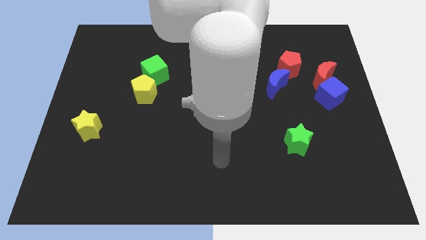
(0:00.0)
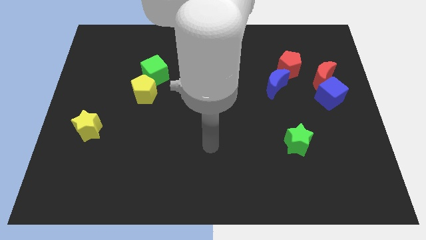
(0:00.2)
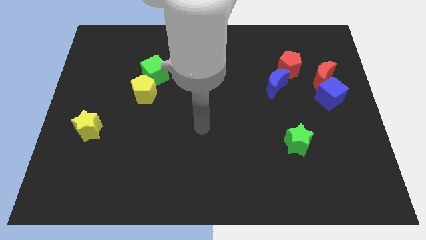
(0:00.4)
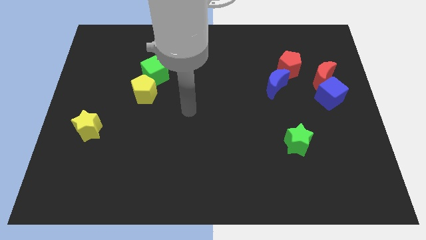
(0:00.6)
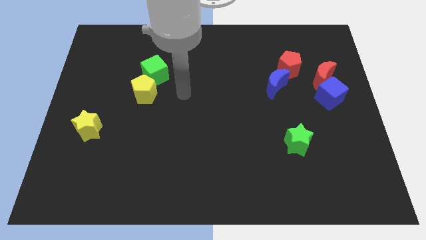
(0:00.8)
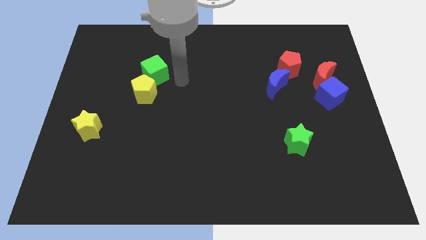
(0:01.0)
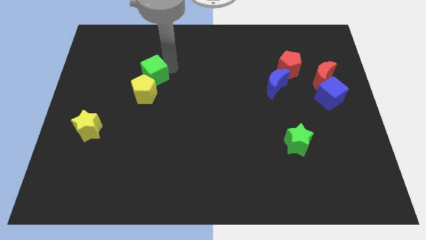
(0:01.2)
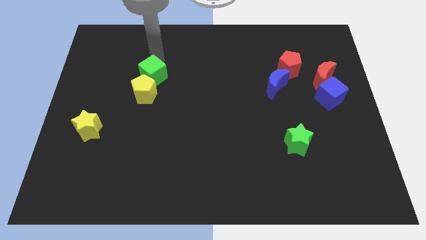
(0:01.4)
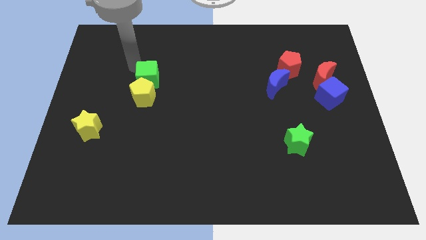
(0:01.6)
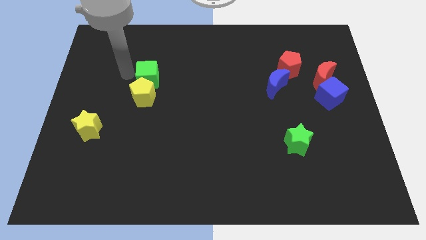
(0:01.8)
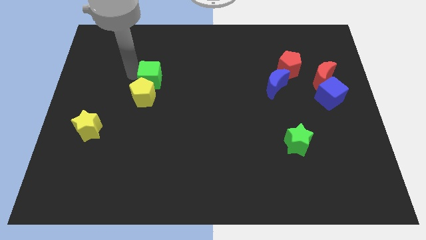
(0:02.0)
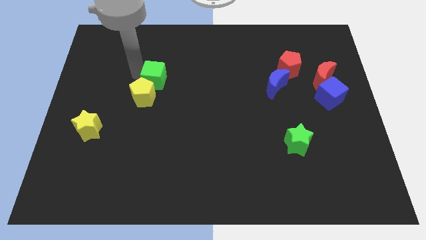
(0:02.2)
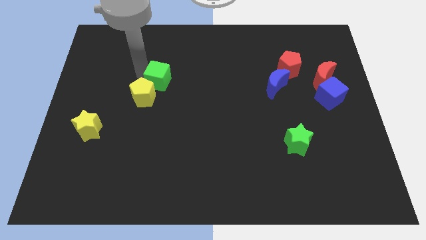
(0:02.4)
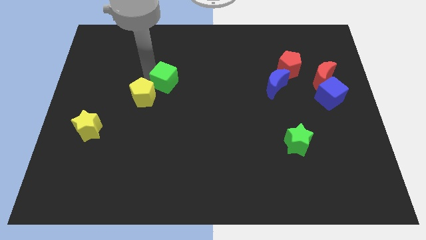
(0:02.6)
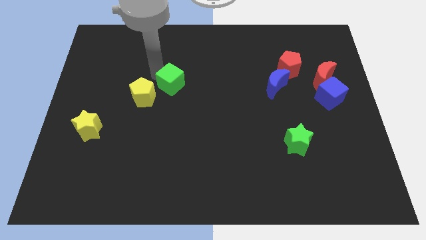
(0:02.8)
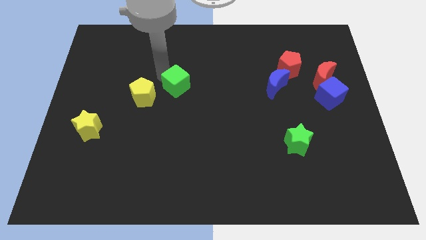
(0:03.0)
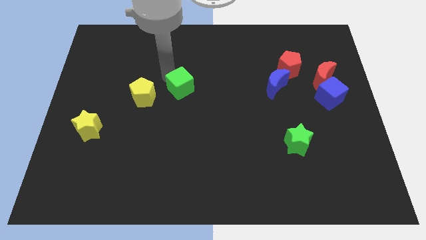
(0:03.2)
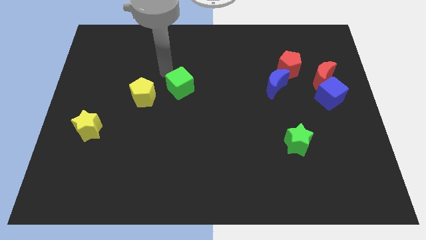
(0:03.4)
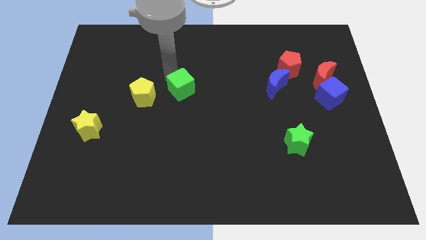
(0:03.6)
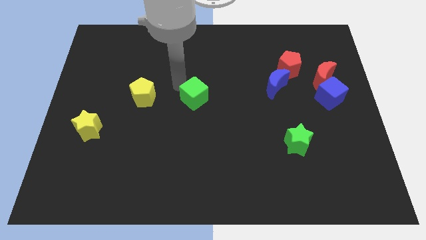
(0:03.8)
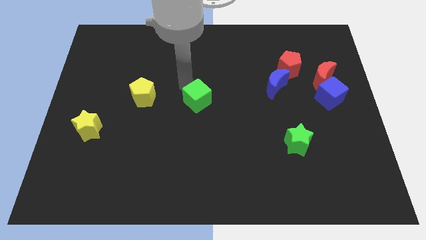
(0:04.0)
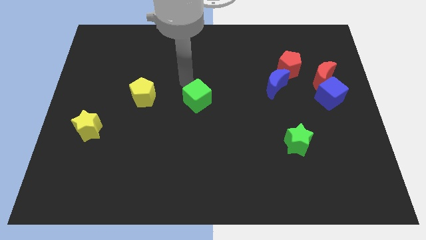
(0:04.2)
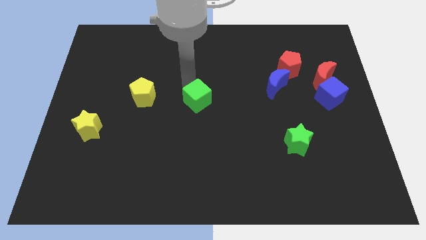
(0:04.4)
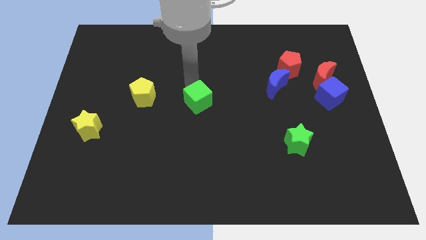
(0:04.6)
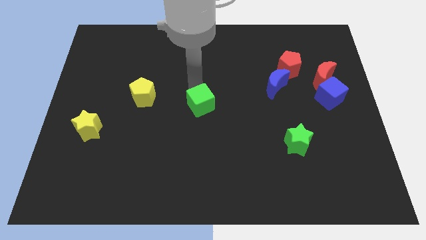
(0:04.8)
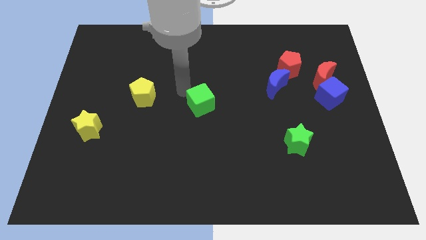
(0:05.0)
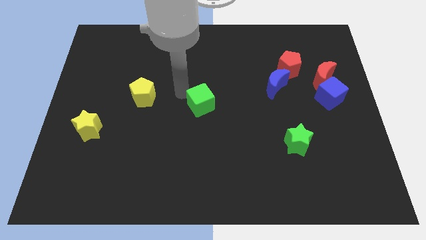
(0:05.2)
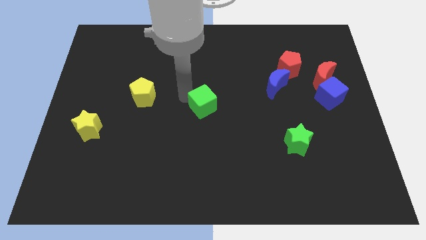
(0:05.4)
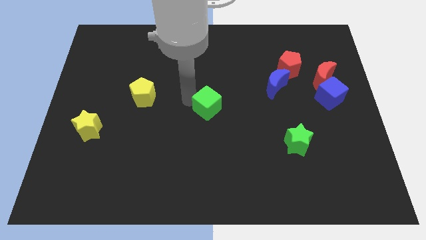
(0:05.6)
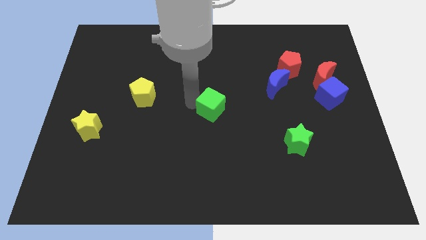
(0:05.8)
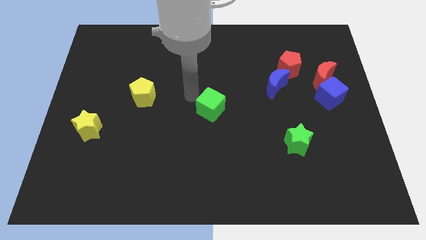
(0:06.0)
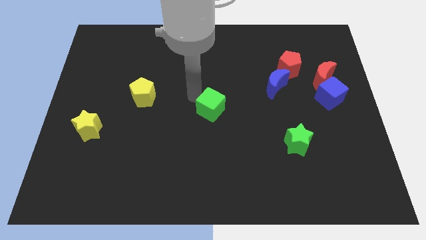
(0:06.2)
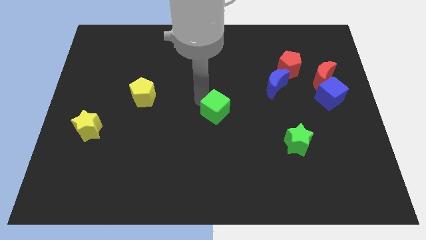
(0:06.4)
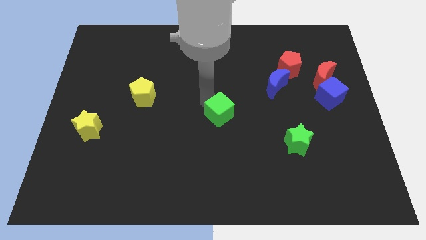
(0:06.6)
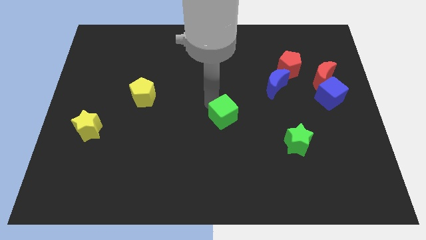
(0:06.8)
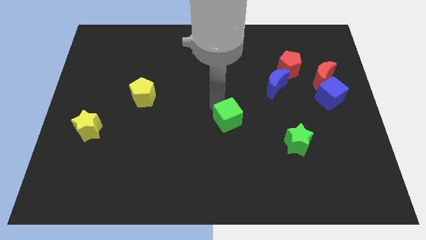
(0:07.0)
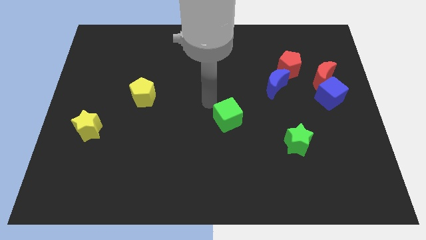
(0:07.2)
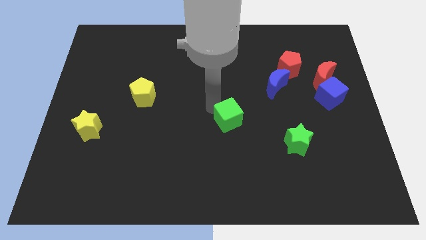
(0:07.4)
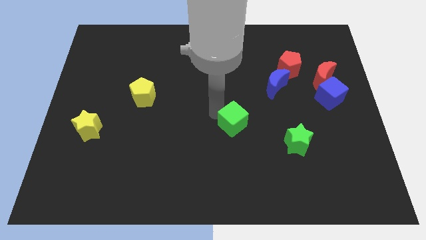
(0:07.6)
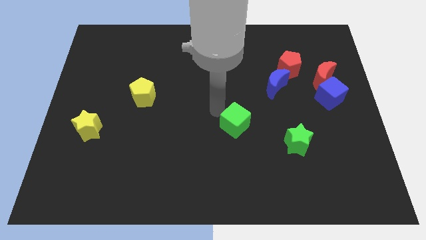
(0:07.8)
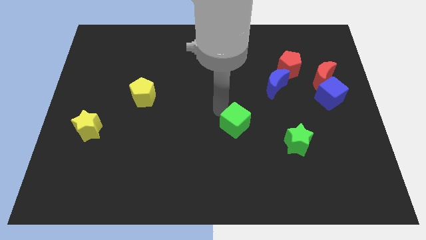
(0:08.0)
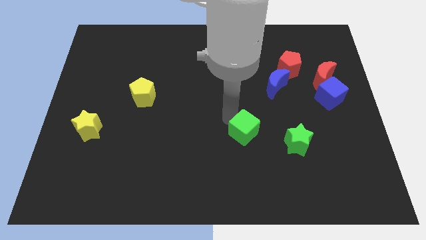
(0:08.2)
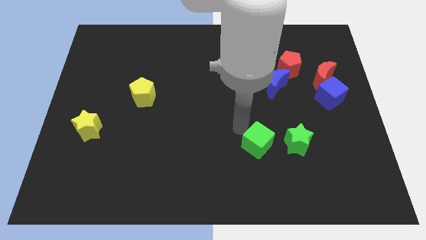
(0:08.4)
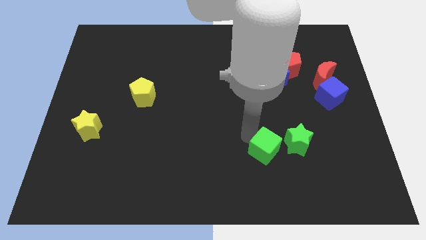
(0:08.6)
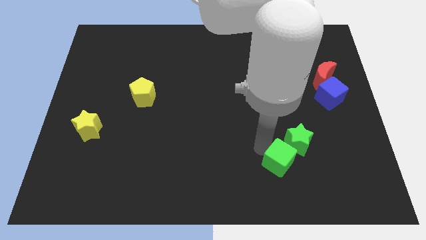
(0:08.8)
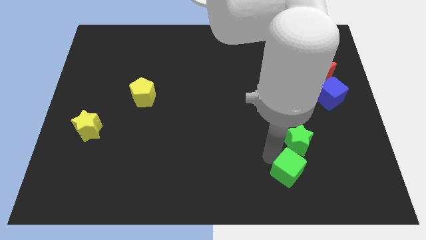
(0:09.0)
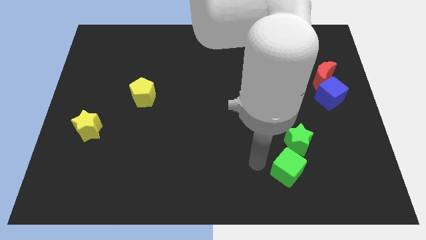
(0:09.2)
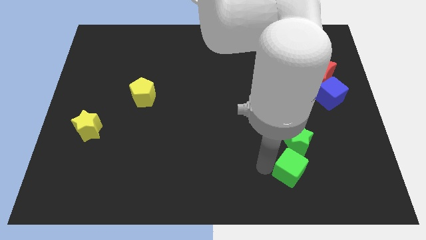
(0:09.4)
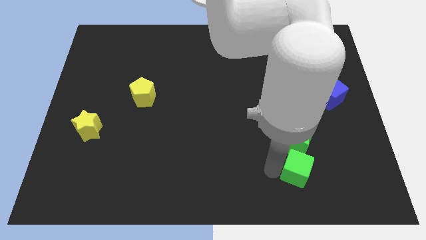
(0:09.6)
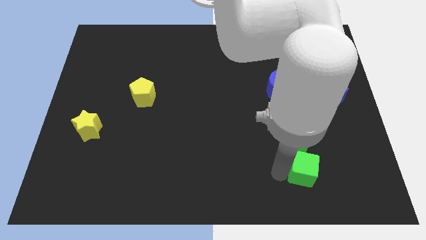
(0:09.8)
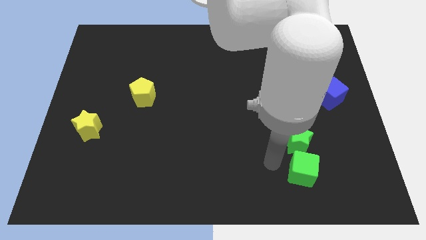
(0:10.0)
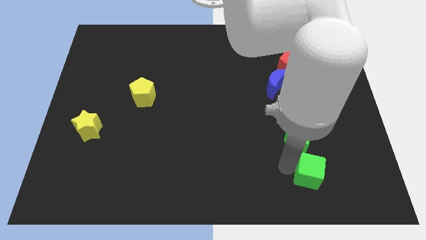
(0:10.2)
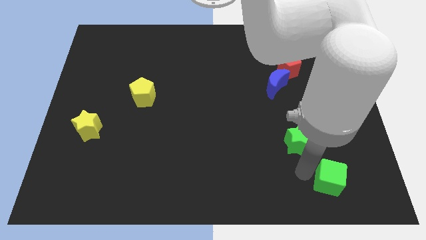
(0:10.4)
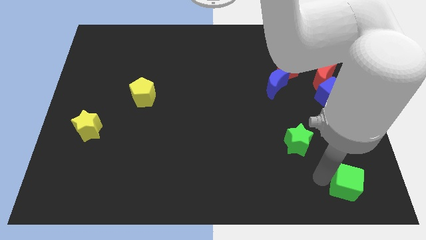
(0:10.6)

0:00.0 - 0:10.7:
put the green cube to the lower right corner
